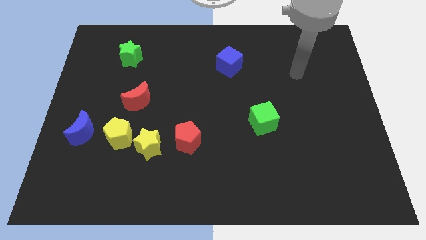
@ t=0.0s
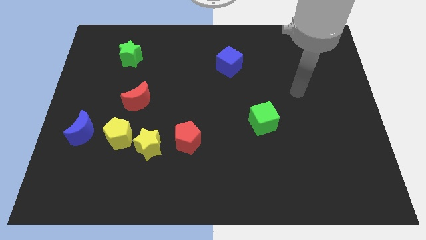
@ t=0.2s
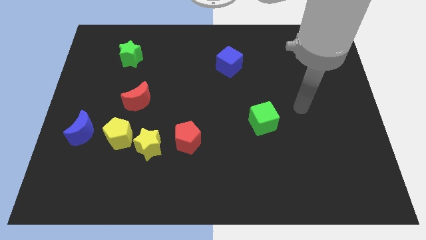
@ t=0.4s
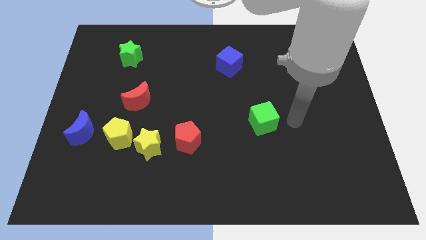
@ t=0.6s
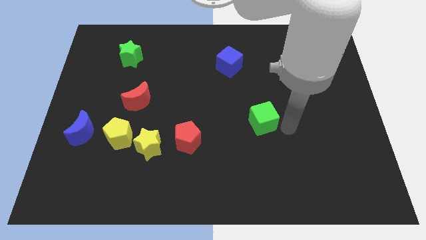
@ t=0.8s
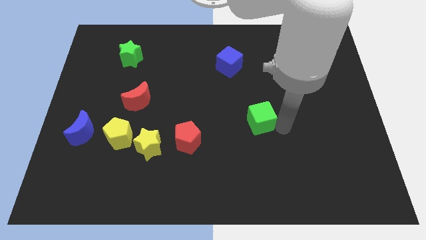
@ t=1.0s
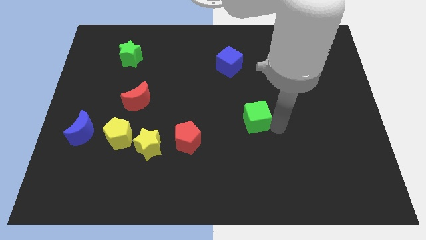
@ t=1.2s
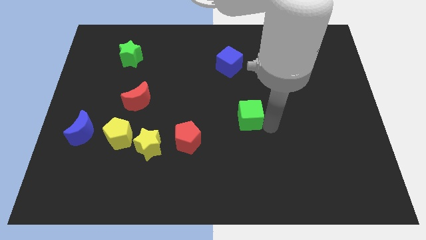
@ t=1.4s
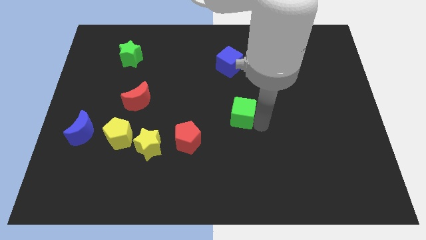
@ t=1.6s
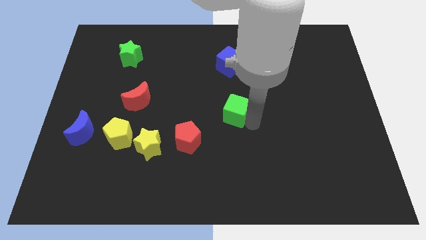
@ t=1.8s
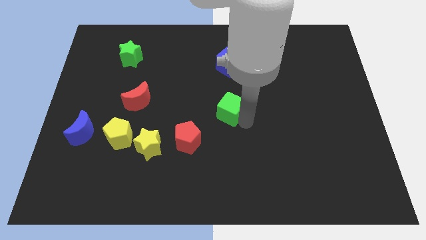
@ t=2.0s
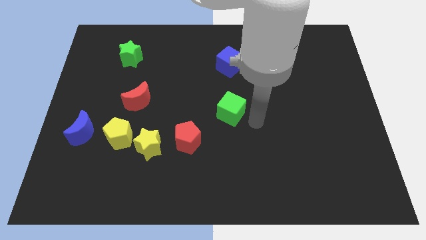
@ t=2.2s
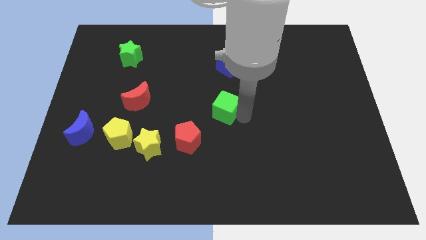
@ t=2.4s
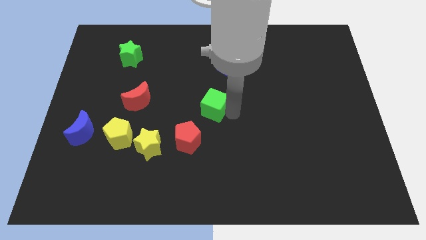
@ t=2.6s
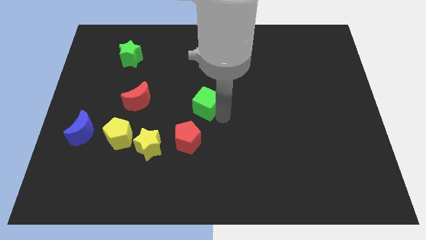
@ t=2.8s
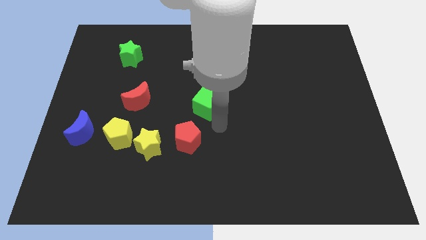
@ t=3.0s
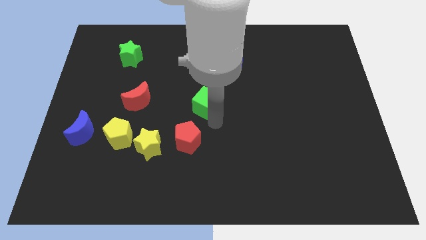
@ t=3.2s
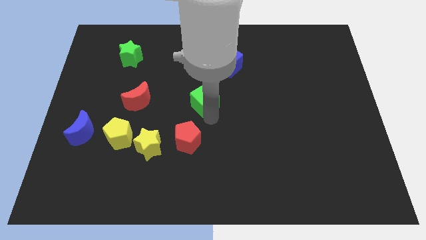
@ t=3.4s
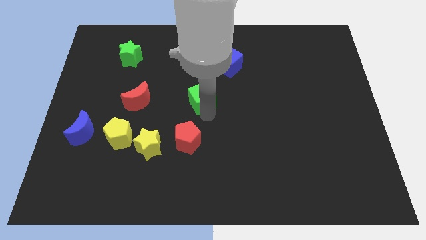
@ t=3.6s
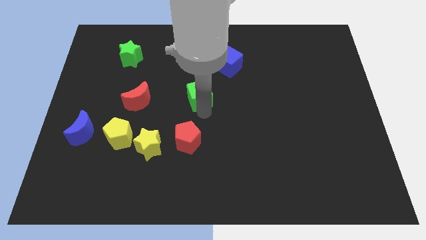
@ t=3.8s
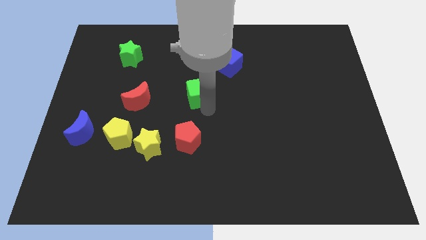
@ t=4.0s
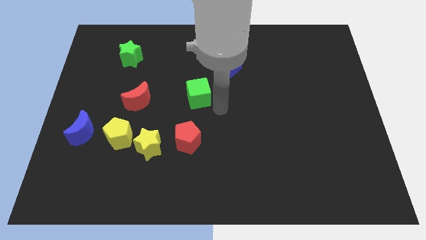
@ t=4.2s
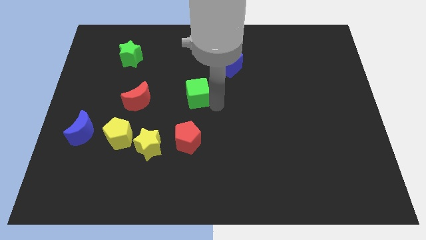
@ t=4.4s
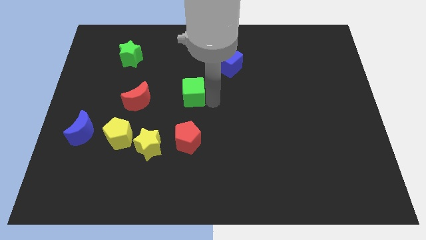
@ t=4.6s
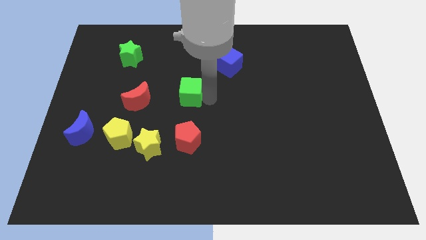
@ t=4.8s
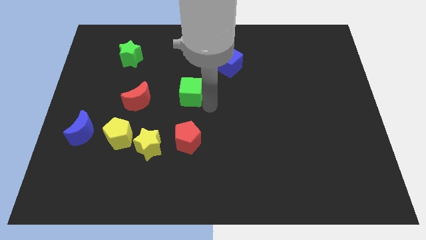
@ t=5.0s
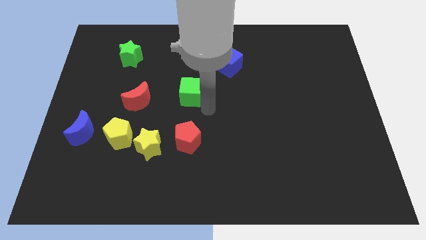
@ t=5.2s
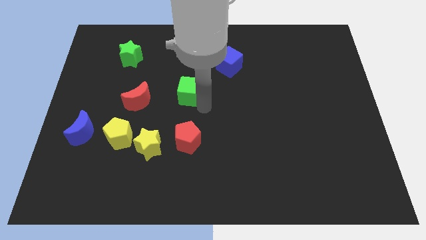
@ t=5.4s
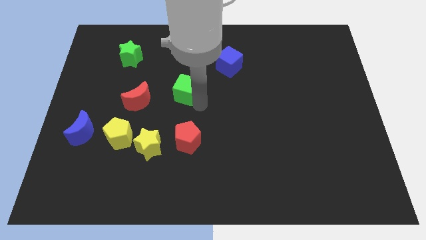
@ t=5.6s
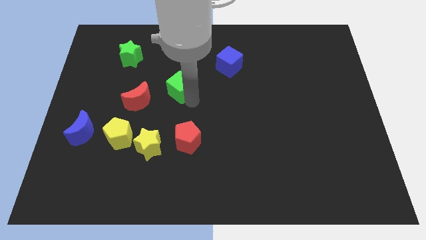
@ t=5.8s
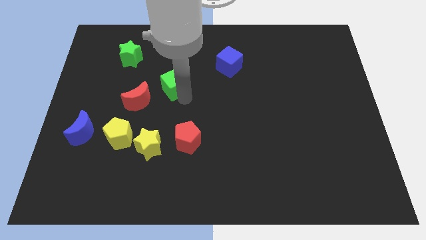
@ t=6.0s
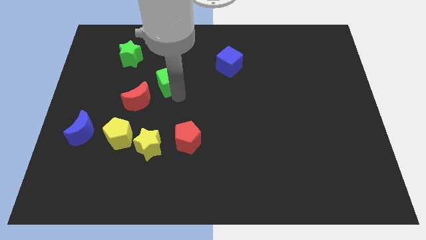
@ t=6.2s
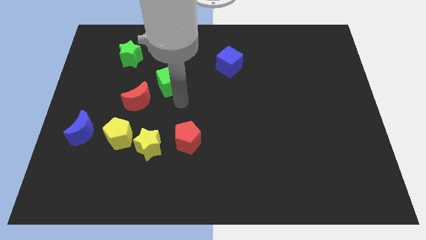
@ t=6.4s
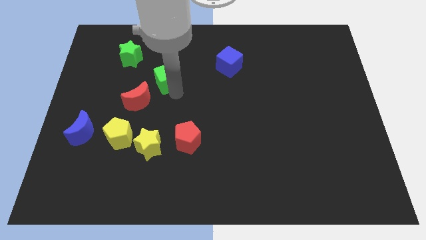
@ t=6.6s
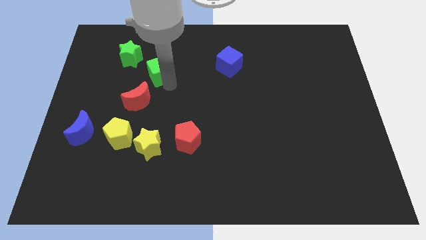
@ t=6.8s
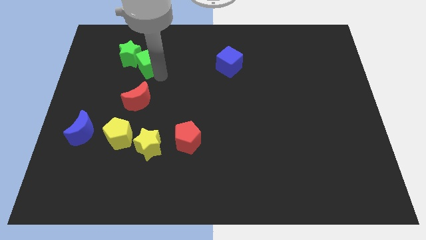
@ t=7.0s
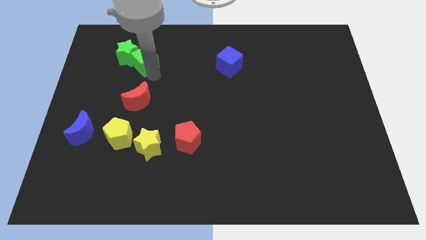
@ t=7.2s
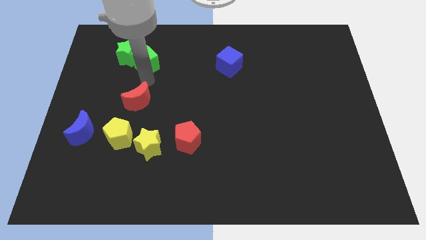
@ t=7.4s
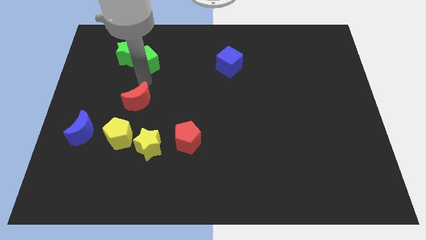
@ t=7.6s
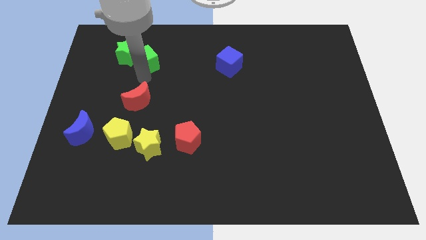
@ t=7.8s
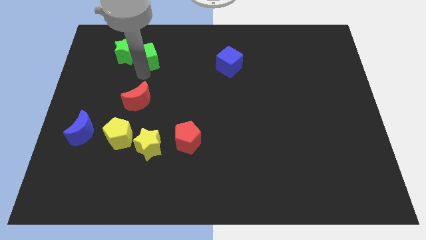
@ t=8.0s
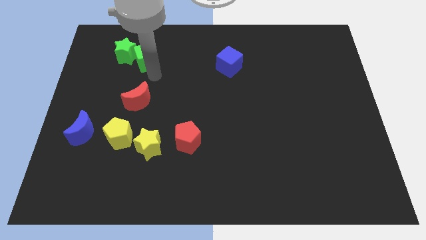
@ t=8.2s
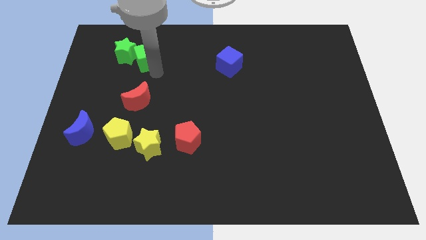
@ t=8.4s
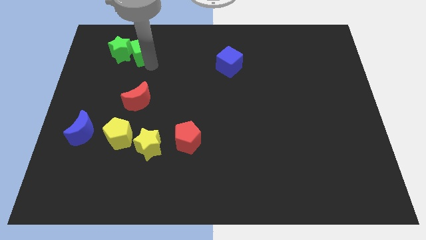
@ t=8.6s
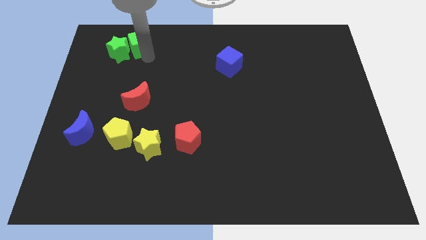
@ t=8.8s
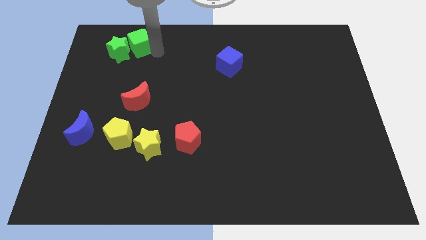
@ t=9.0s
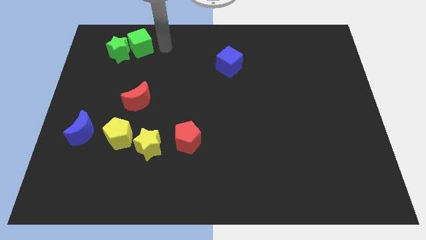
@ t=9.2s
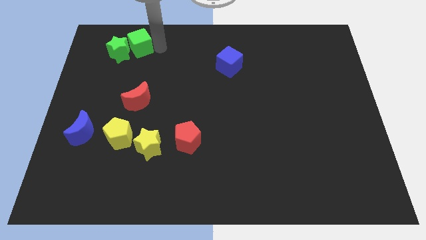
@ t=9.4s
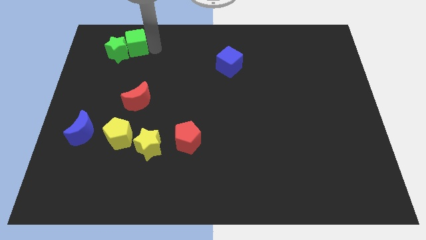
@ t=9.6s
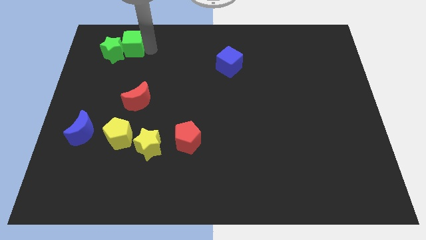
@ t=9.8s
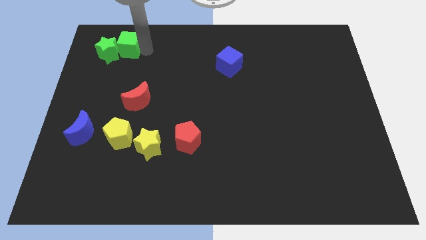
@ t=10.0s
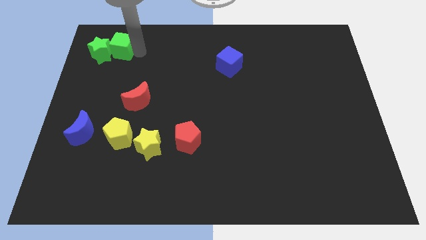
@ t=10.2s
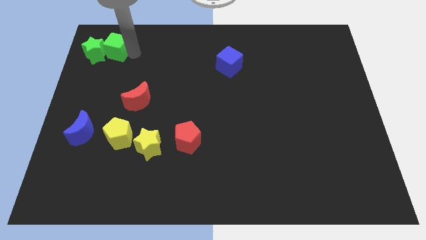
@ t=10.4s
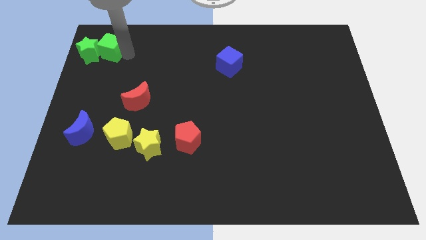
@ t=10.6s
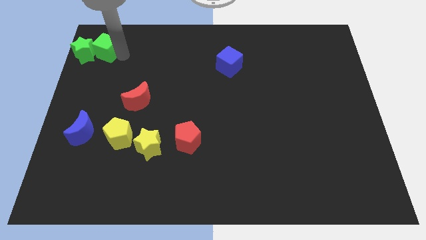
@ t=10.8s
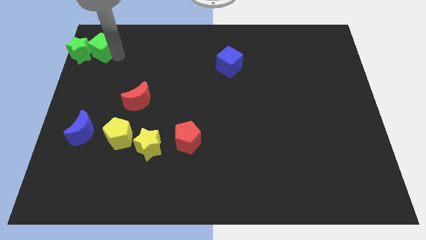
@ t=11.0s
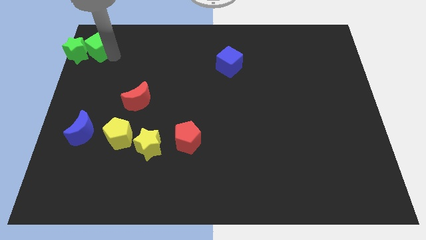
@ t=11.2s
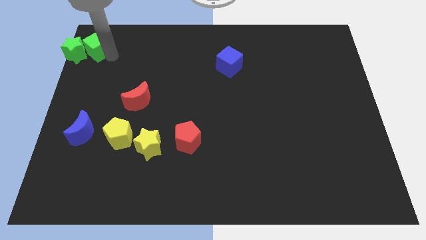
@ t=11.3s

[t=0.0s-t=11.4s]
push the green cube to the upper left corner

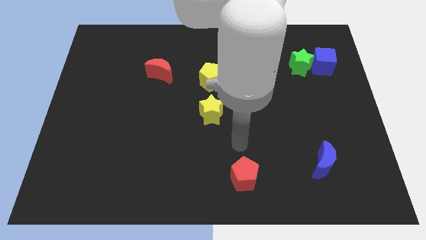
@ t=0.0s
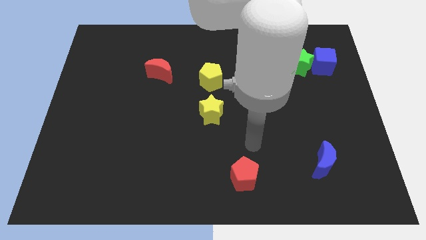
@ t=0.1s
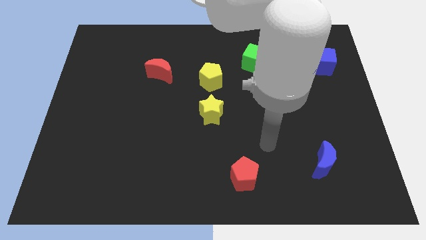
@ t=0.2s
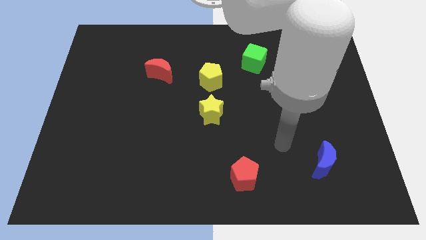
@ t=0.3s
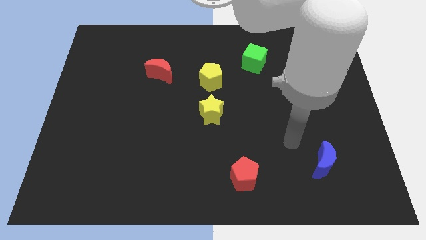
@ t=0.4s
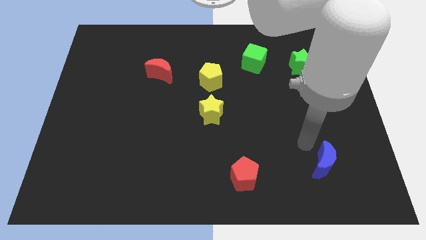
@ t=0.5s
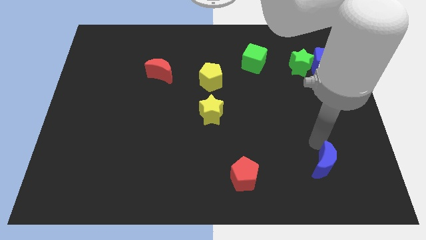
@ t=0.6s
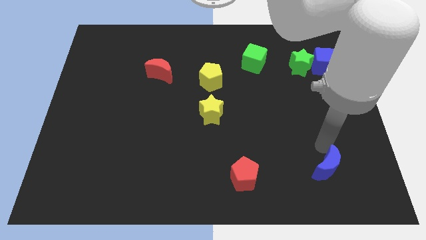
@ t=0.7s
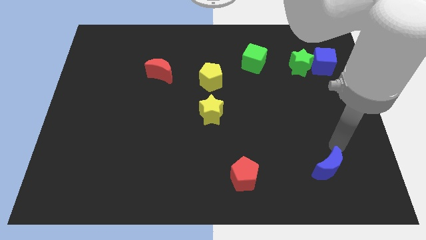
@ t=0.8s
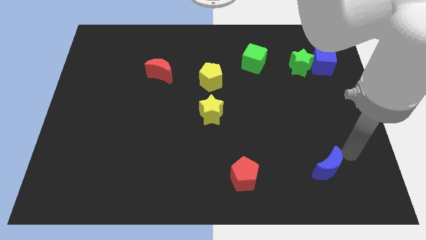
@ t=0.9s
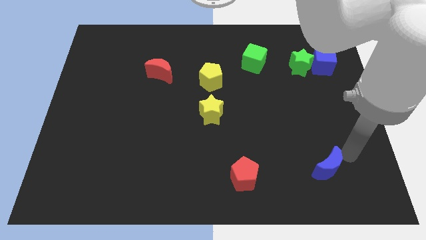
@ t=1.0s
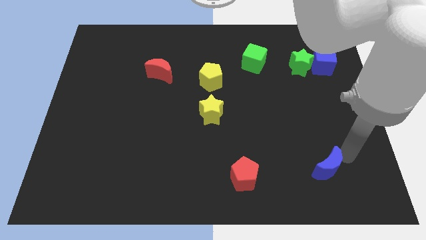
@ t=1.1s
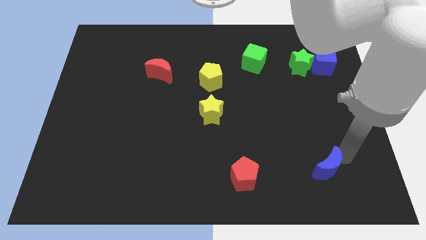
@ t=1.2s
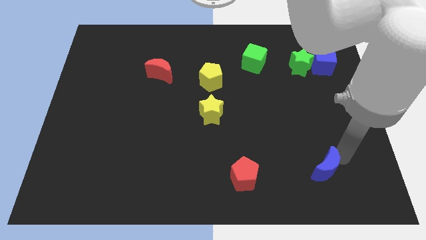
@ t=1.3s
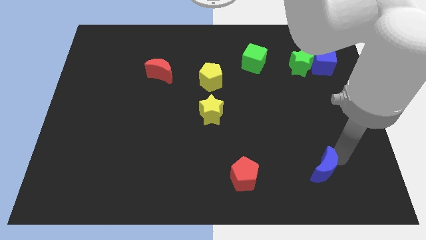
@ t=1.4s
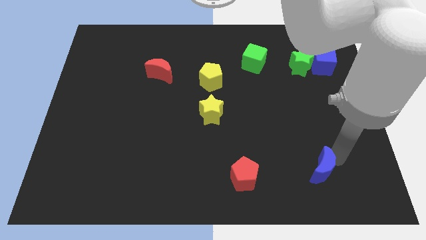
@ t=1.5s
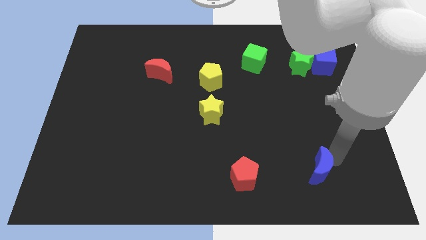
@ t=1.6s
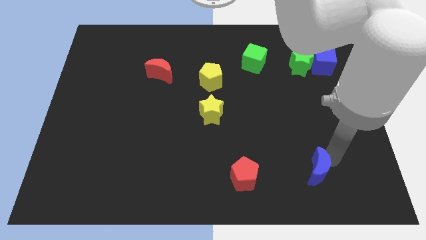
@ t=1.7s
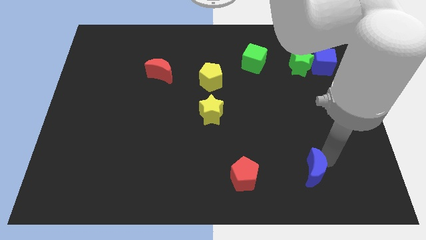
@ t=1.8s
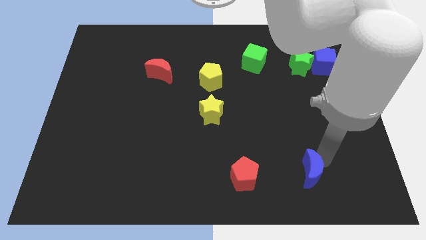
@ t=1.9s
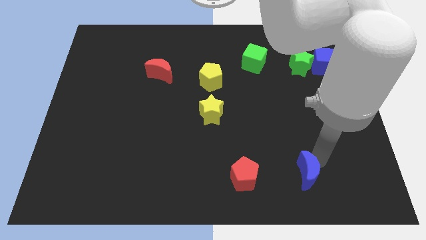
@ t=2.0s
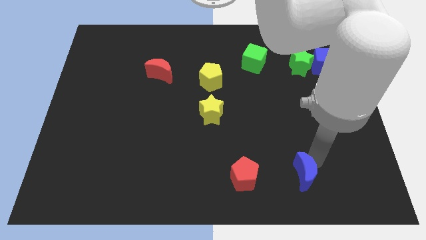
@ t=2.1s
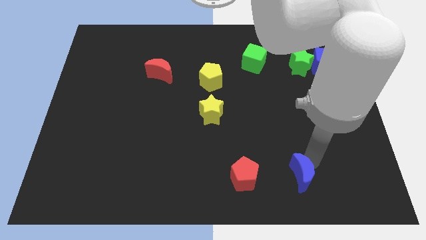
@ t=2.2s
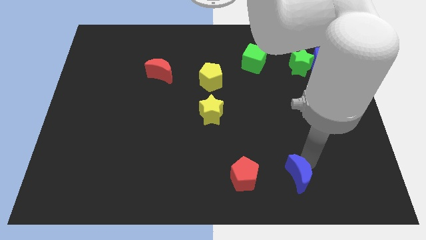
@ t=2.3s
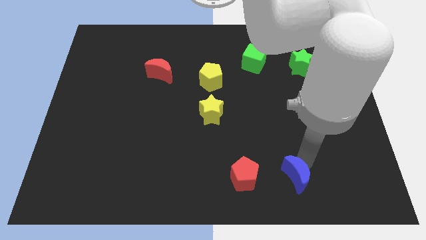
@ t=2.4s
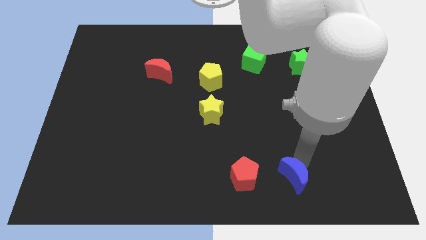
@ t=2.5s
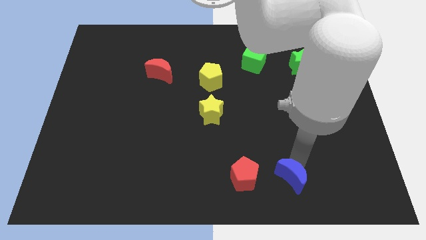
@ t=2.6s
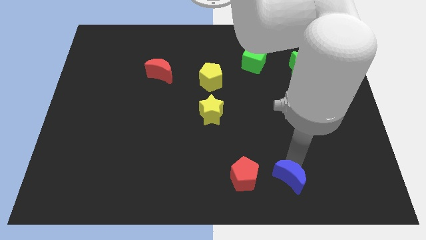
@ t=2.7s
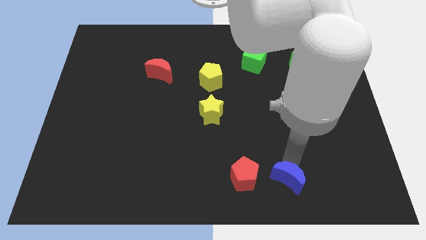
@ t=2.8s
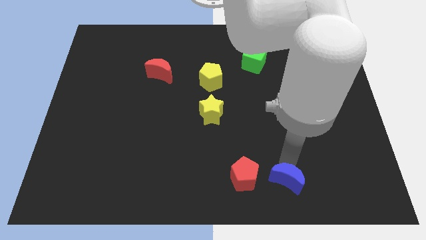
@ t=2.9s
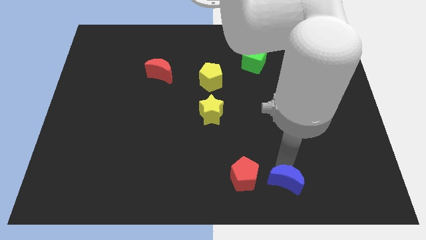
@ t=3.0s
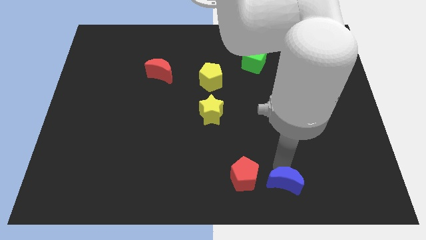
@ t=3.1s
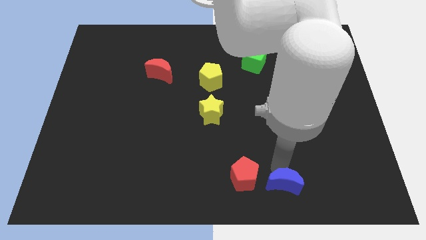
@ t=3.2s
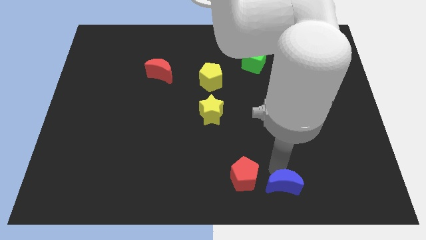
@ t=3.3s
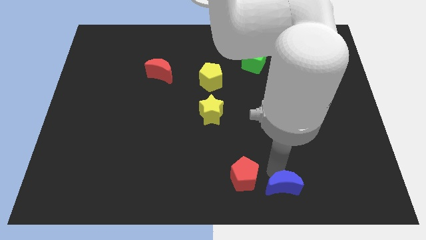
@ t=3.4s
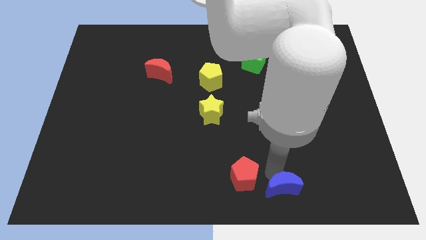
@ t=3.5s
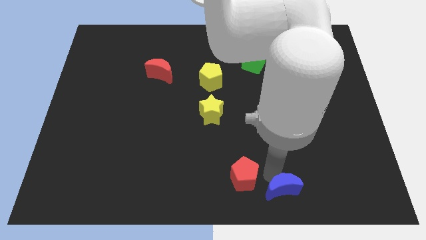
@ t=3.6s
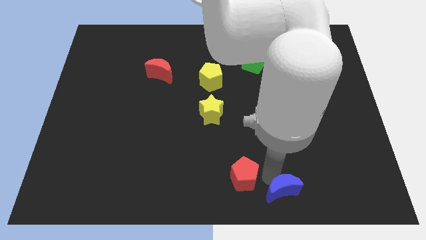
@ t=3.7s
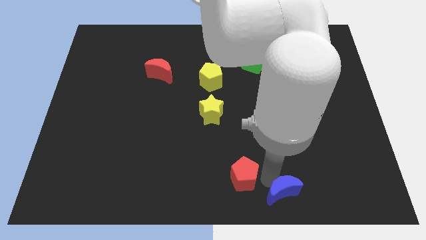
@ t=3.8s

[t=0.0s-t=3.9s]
push the blue moon to the bottom
